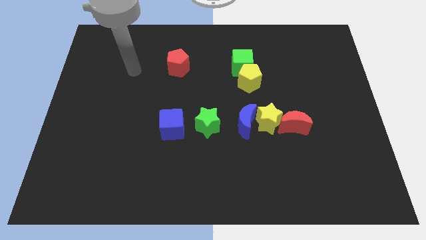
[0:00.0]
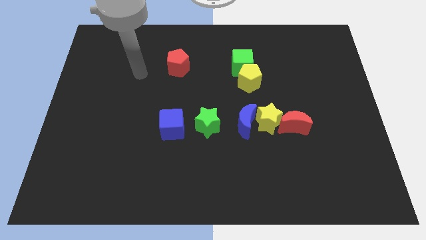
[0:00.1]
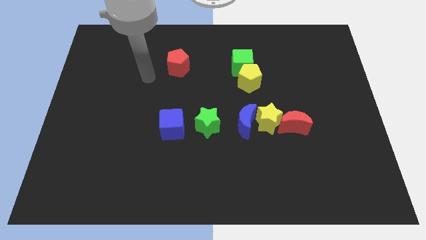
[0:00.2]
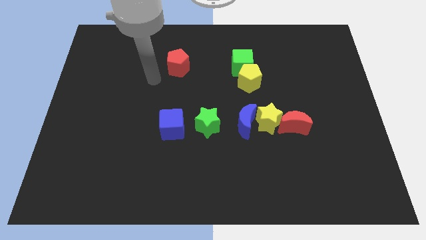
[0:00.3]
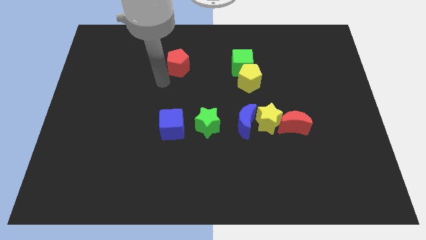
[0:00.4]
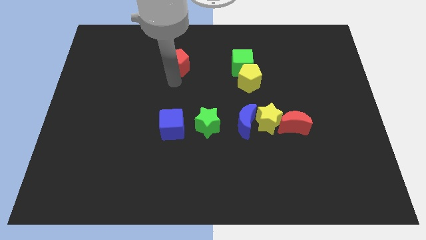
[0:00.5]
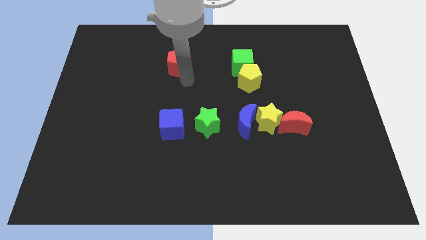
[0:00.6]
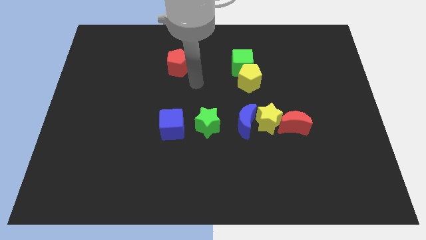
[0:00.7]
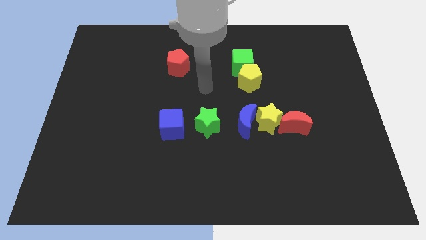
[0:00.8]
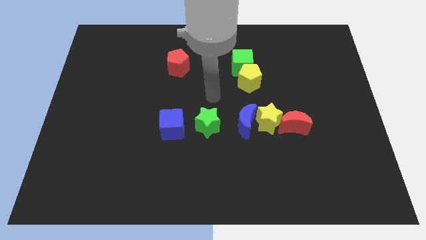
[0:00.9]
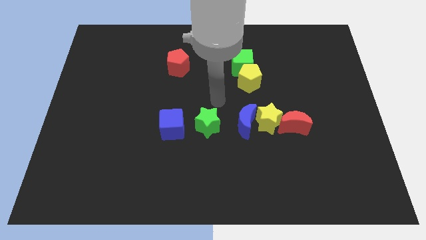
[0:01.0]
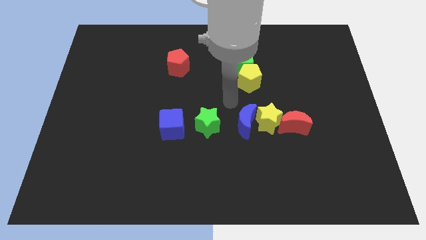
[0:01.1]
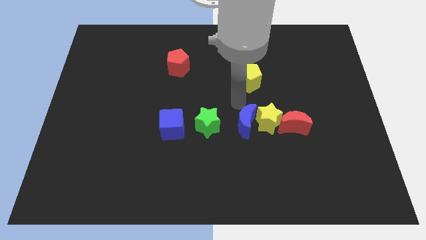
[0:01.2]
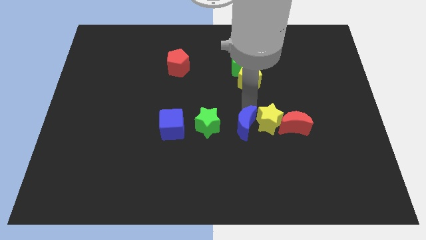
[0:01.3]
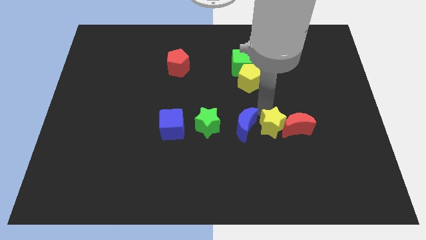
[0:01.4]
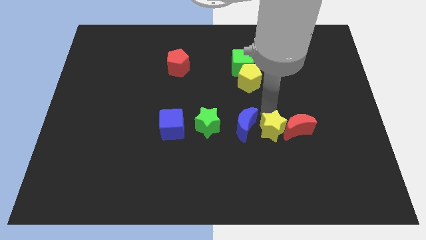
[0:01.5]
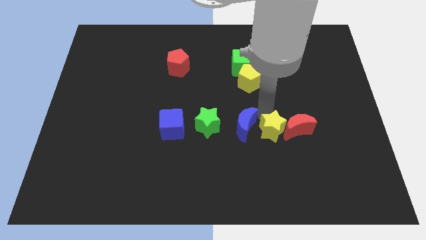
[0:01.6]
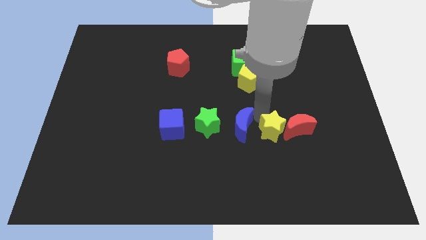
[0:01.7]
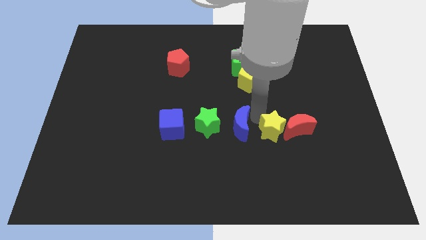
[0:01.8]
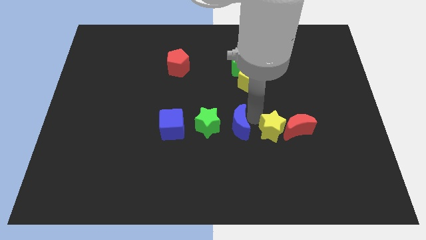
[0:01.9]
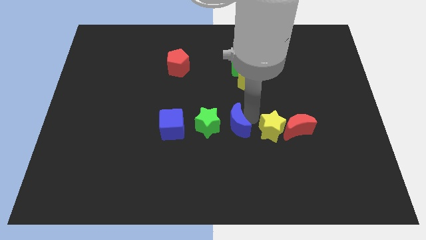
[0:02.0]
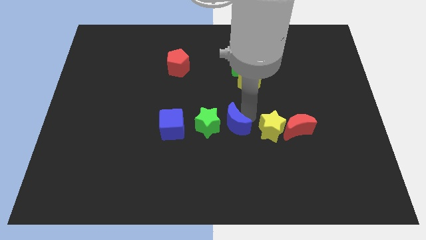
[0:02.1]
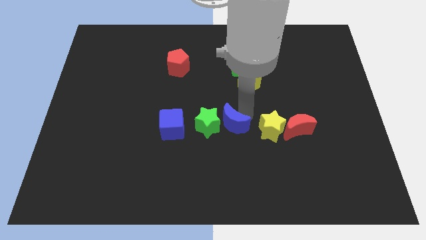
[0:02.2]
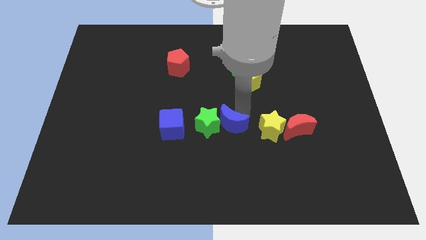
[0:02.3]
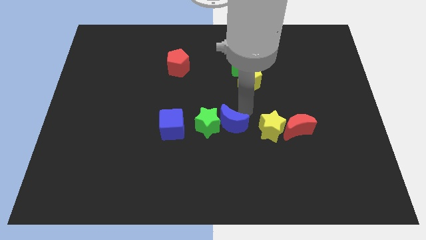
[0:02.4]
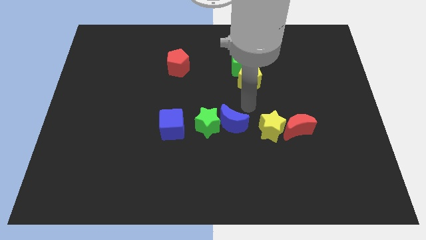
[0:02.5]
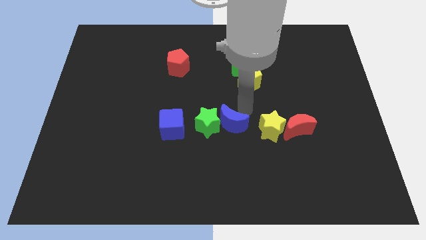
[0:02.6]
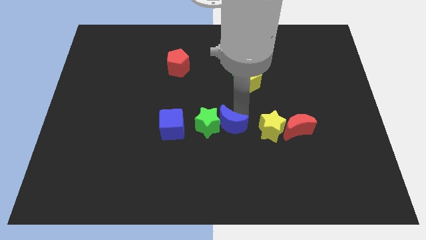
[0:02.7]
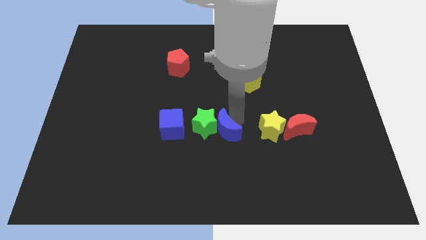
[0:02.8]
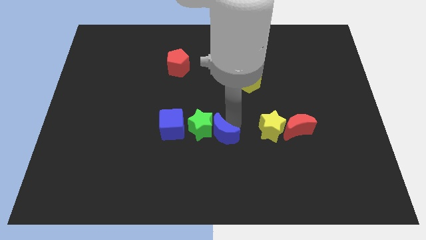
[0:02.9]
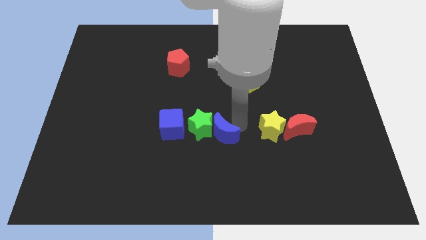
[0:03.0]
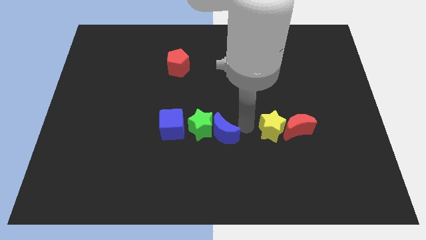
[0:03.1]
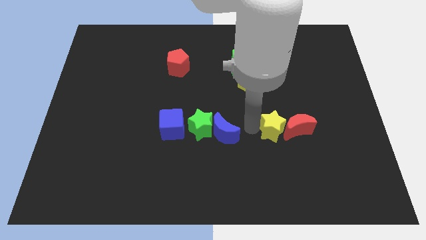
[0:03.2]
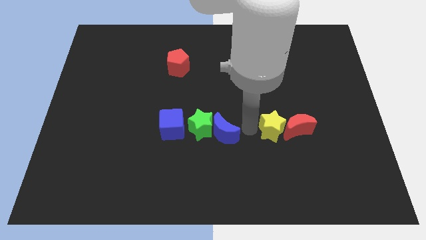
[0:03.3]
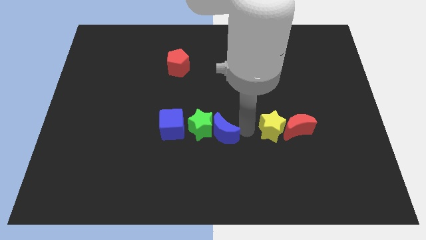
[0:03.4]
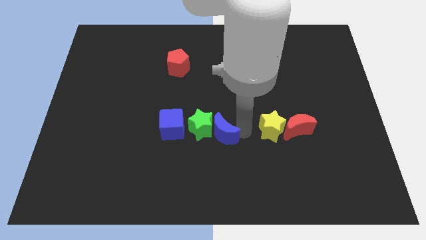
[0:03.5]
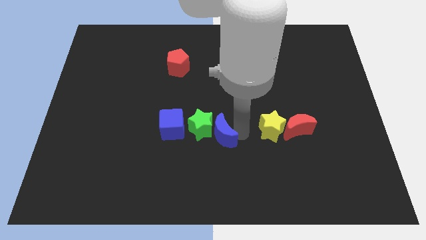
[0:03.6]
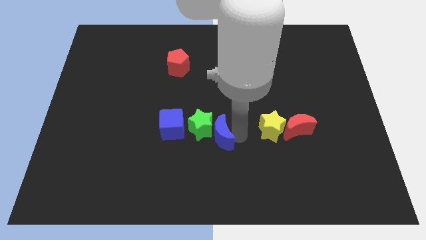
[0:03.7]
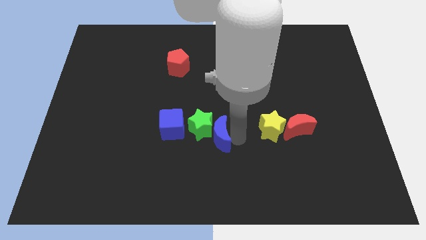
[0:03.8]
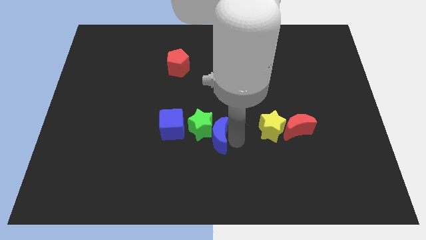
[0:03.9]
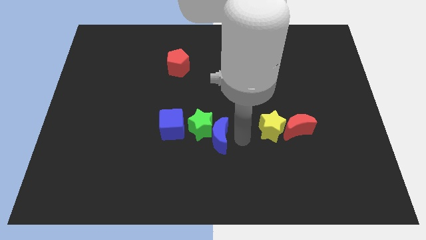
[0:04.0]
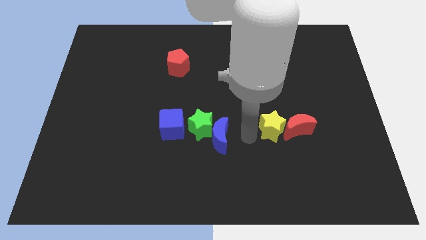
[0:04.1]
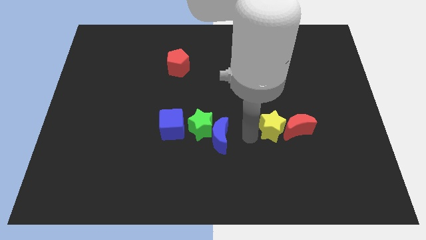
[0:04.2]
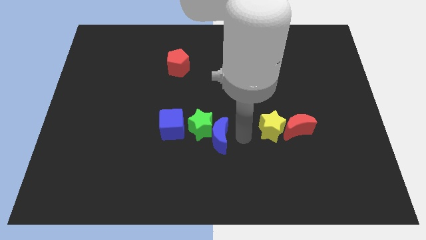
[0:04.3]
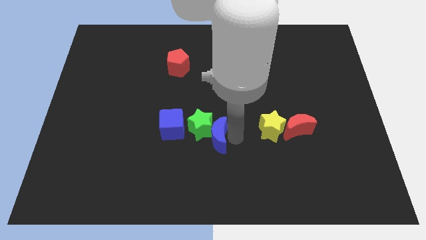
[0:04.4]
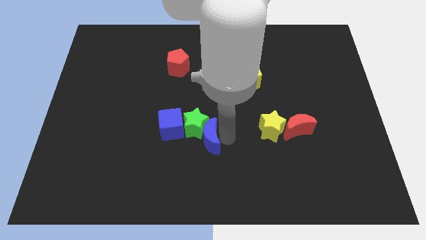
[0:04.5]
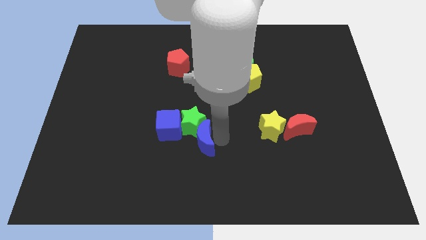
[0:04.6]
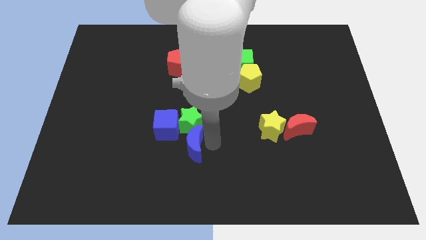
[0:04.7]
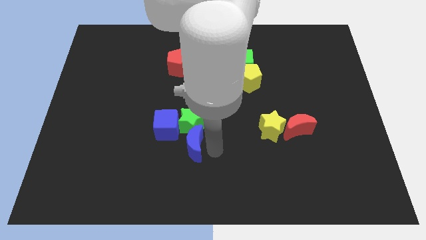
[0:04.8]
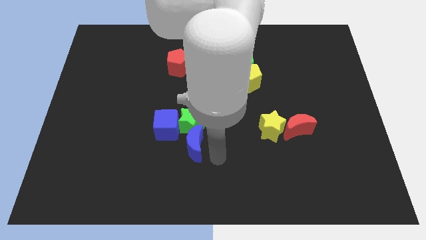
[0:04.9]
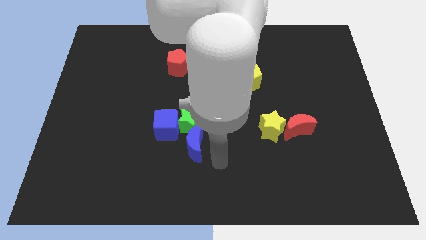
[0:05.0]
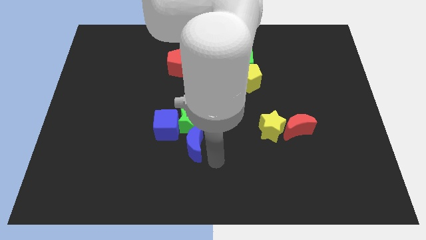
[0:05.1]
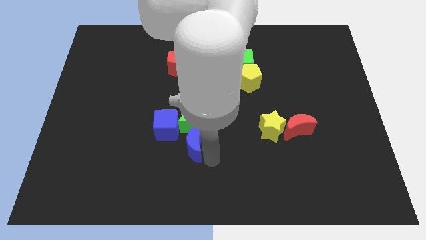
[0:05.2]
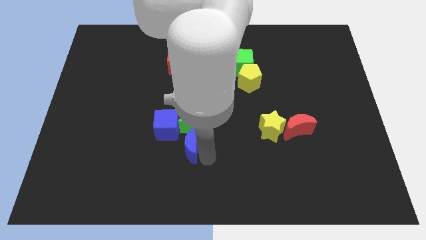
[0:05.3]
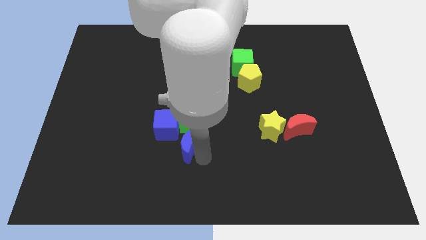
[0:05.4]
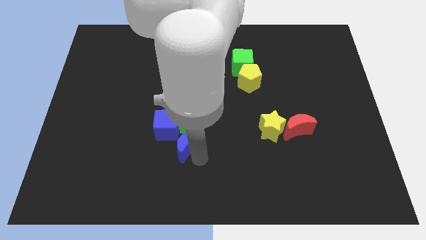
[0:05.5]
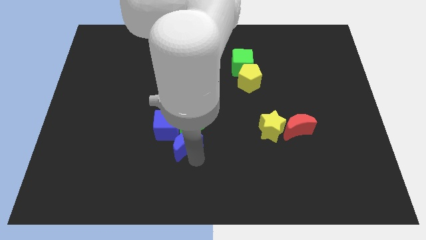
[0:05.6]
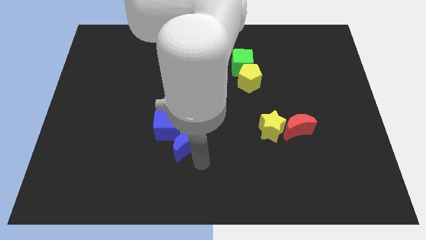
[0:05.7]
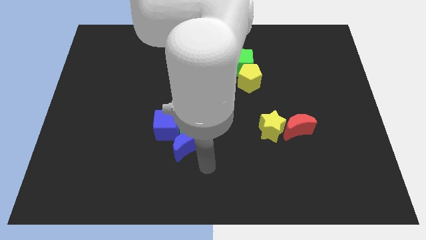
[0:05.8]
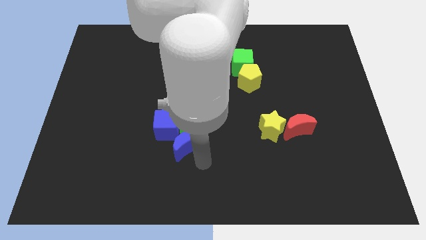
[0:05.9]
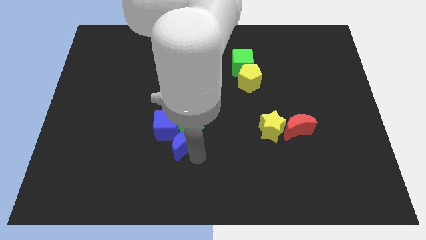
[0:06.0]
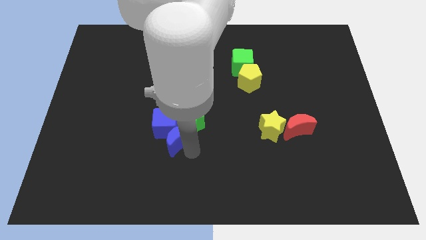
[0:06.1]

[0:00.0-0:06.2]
slide the blue moon towards the blue cube

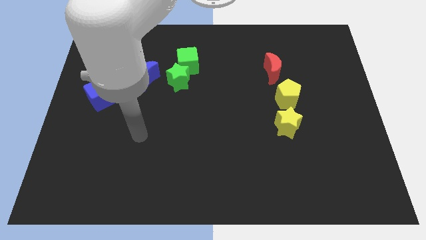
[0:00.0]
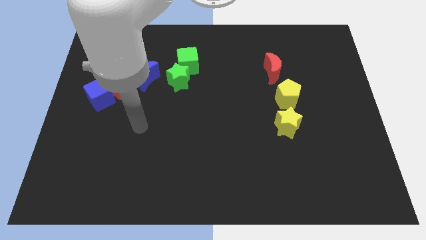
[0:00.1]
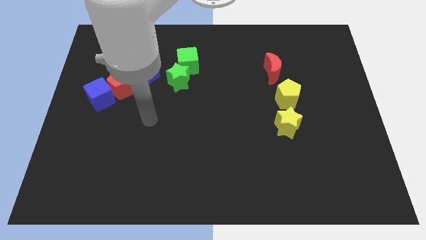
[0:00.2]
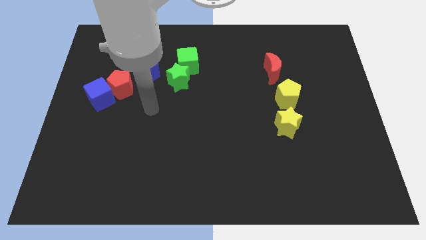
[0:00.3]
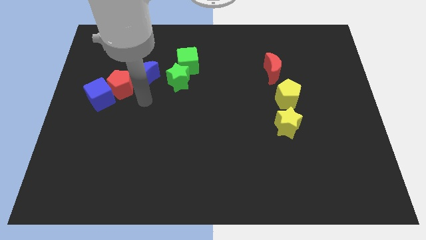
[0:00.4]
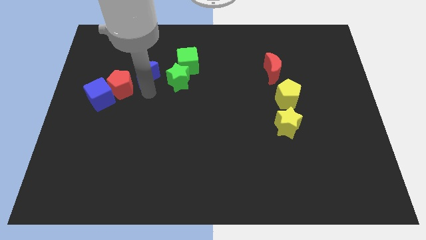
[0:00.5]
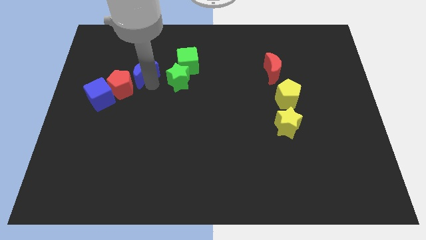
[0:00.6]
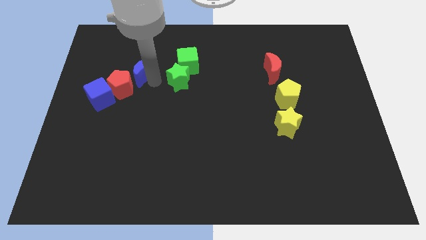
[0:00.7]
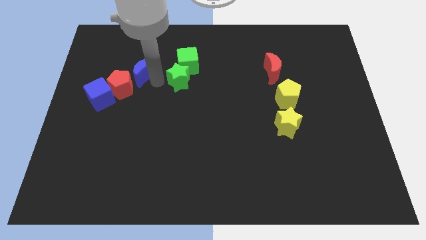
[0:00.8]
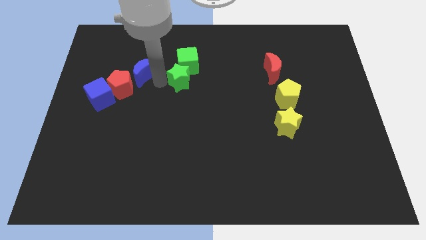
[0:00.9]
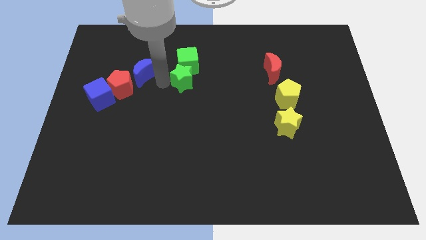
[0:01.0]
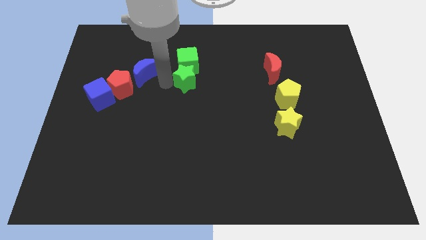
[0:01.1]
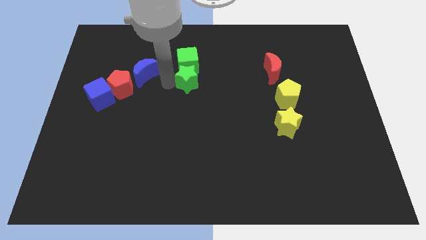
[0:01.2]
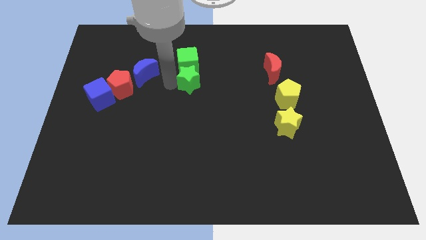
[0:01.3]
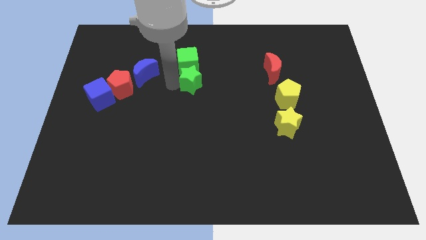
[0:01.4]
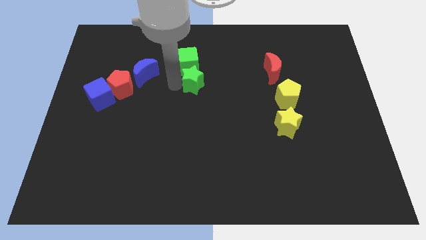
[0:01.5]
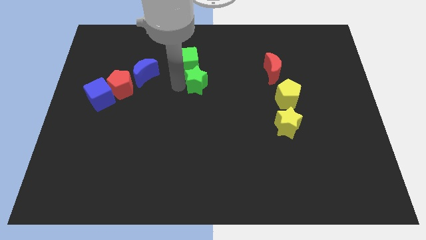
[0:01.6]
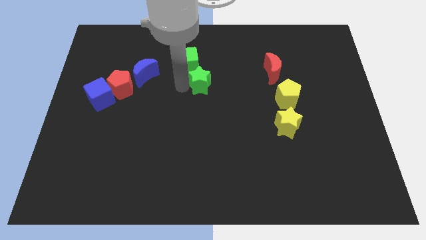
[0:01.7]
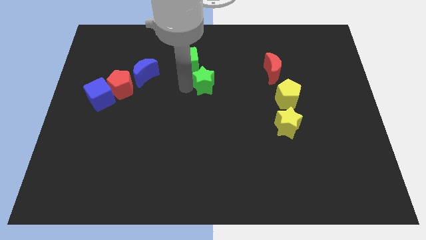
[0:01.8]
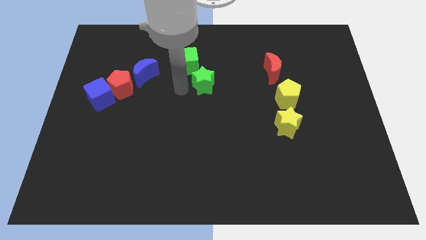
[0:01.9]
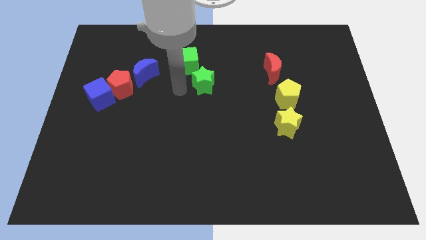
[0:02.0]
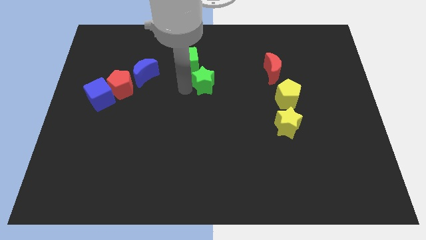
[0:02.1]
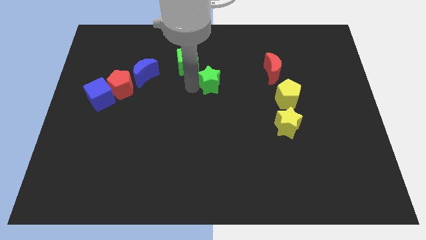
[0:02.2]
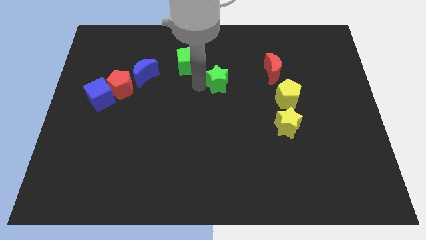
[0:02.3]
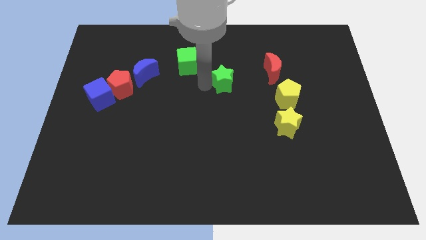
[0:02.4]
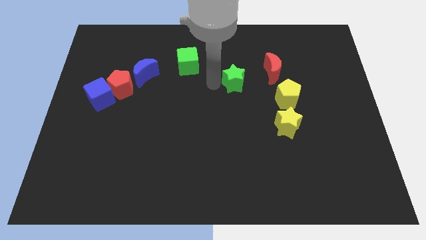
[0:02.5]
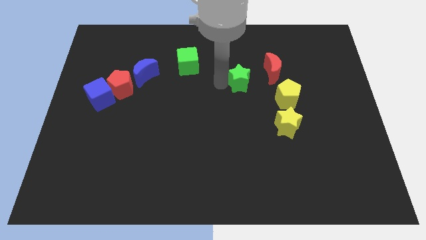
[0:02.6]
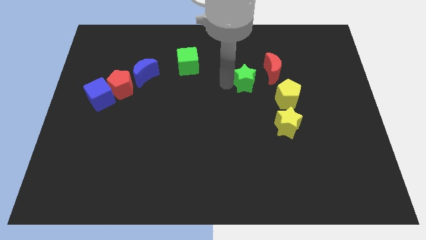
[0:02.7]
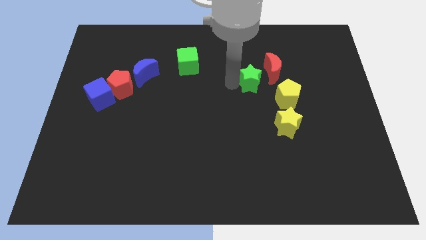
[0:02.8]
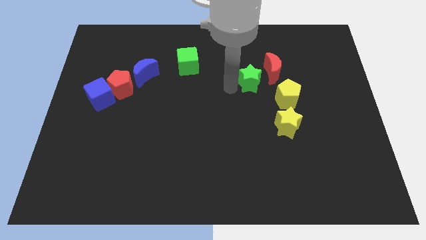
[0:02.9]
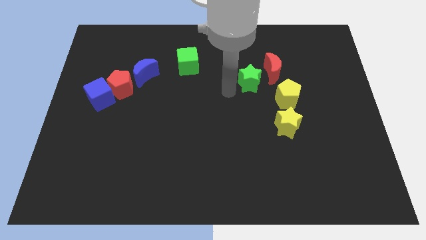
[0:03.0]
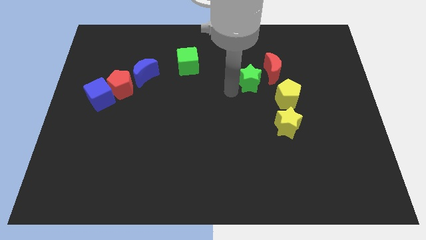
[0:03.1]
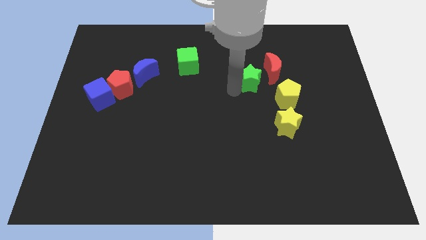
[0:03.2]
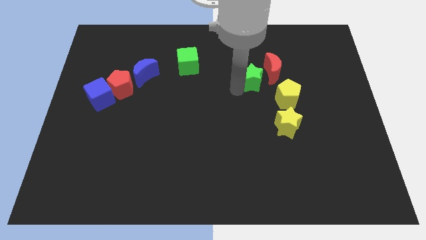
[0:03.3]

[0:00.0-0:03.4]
move the green star towards the red moon
